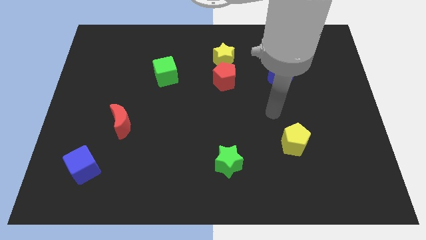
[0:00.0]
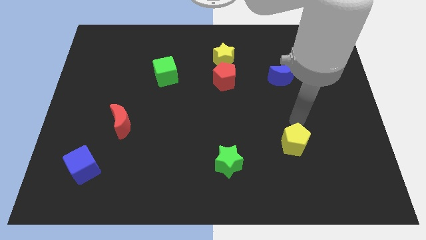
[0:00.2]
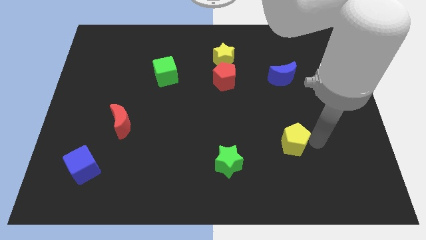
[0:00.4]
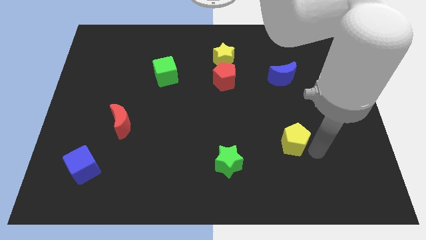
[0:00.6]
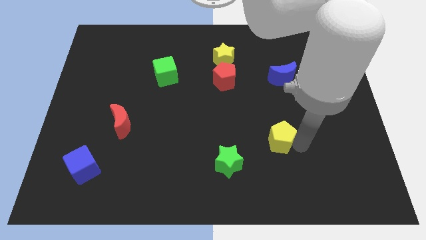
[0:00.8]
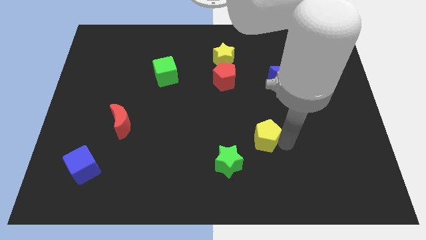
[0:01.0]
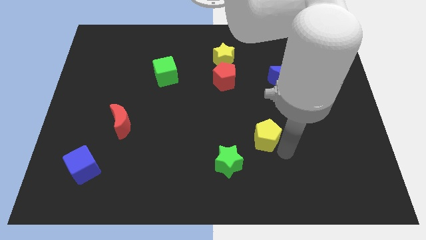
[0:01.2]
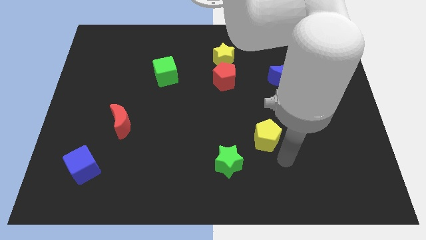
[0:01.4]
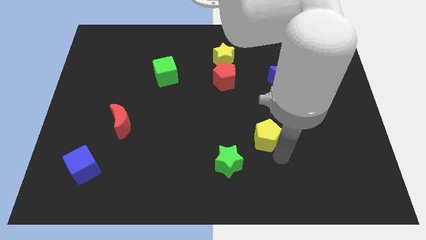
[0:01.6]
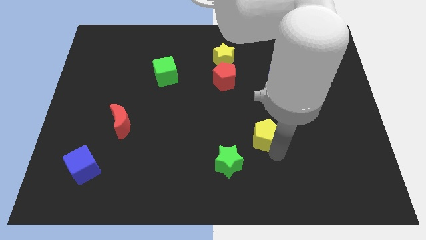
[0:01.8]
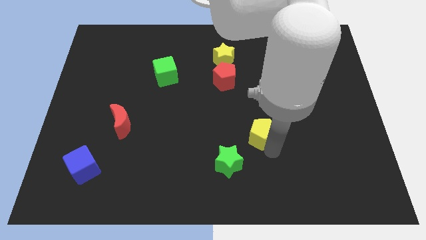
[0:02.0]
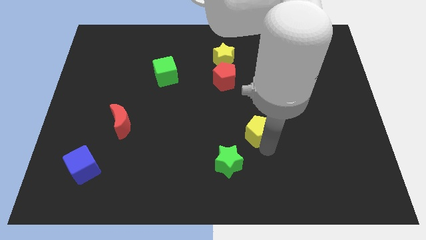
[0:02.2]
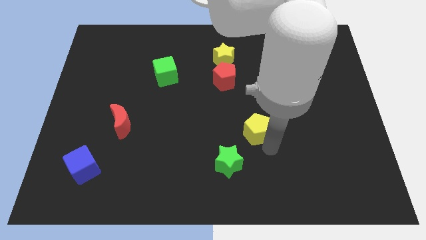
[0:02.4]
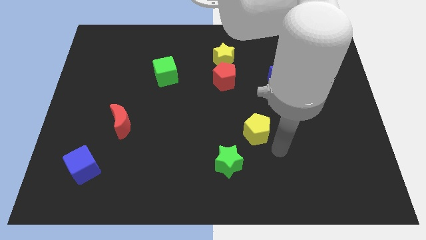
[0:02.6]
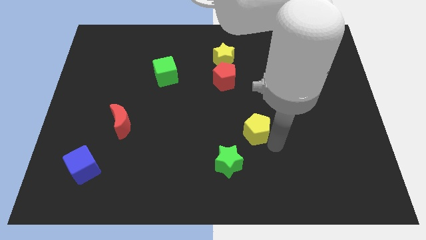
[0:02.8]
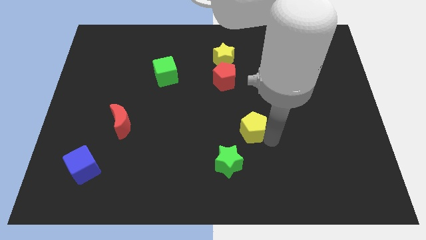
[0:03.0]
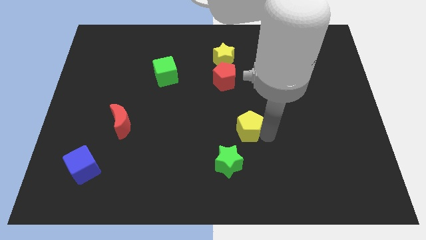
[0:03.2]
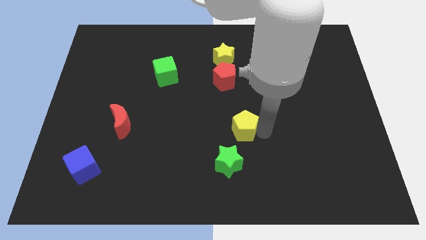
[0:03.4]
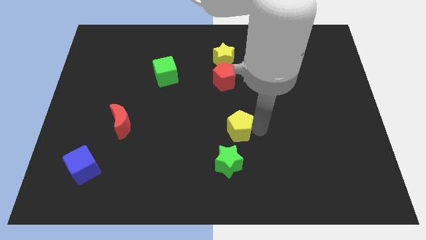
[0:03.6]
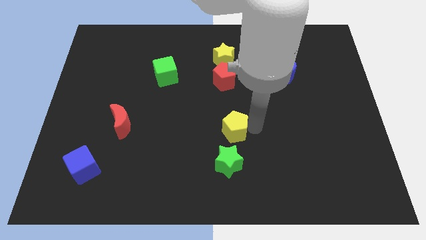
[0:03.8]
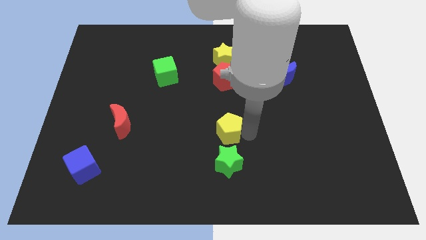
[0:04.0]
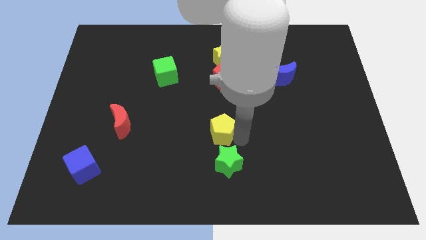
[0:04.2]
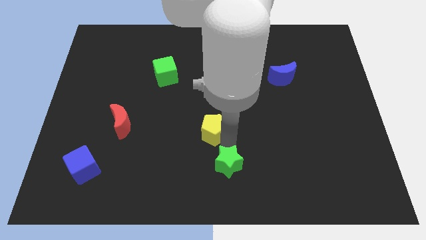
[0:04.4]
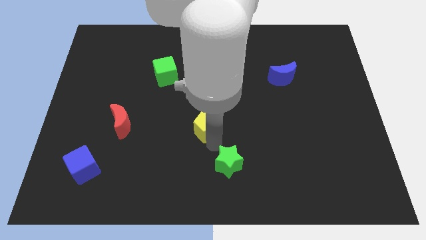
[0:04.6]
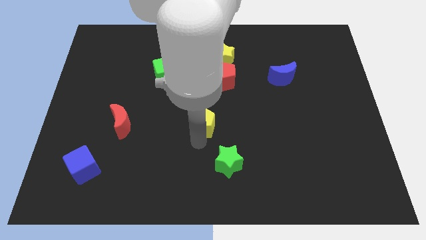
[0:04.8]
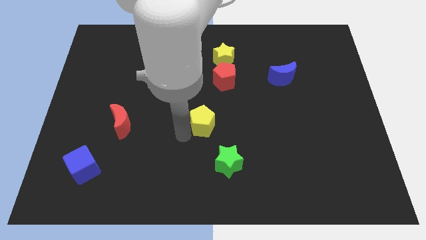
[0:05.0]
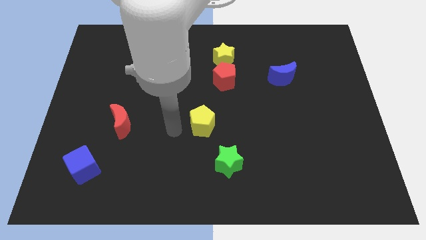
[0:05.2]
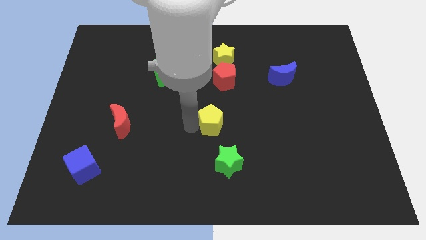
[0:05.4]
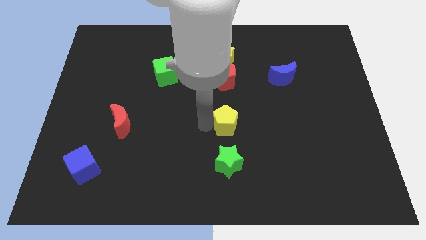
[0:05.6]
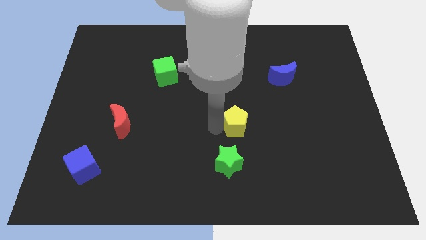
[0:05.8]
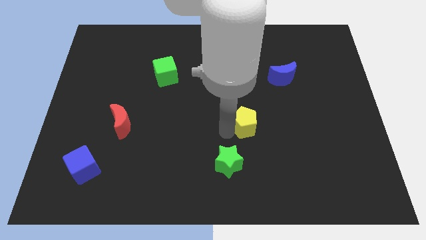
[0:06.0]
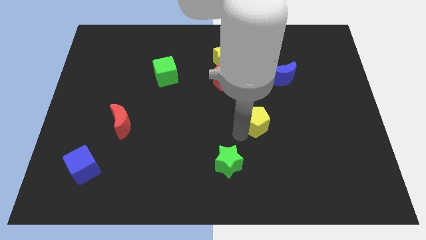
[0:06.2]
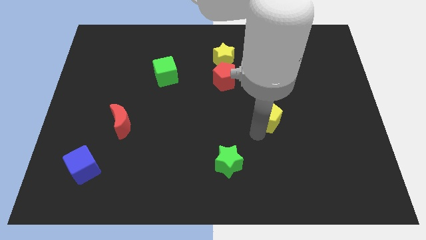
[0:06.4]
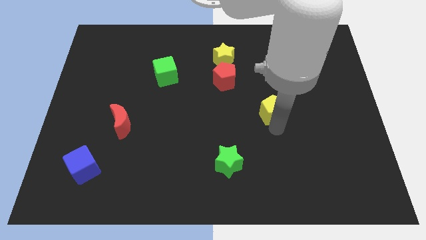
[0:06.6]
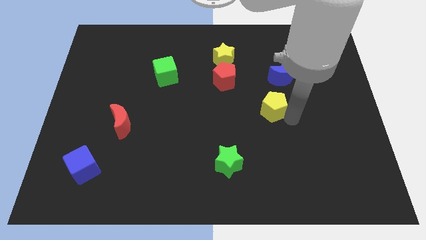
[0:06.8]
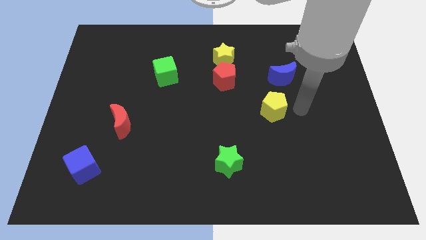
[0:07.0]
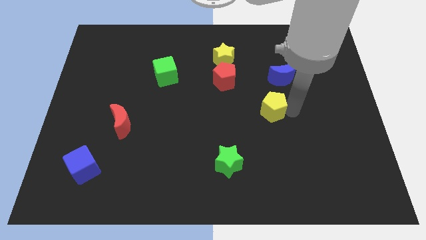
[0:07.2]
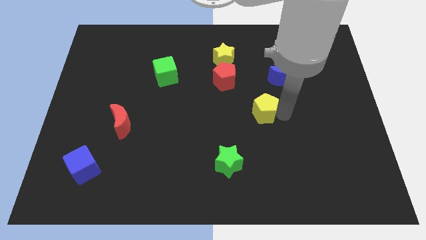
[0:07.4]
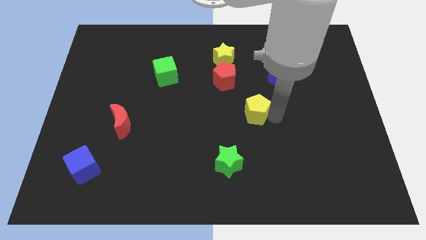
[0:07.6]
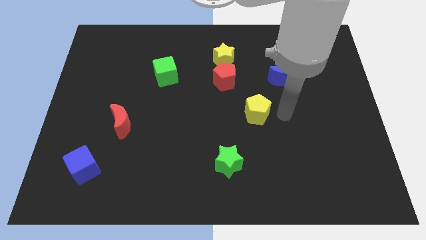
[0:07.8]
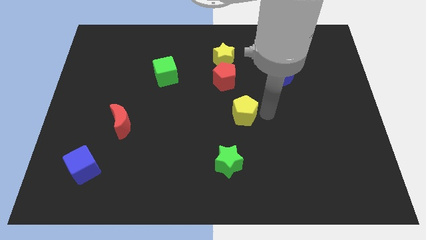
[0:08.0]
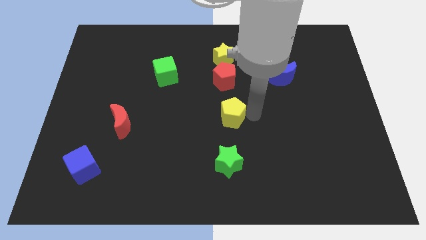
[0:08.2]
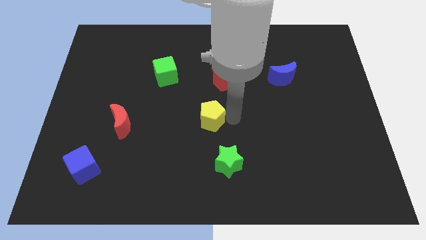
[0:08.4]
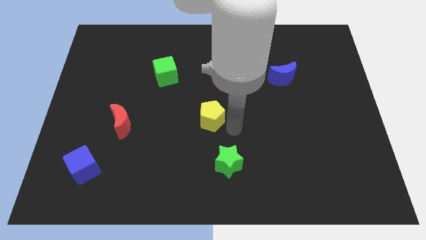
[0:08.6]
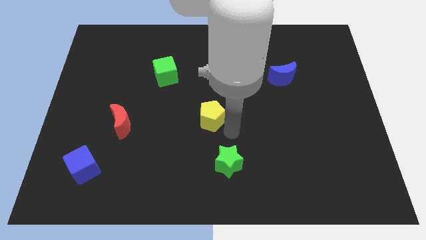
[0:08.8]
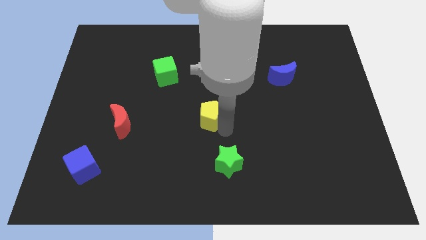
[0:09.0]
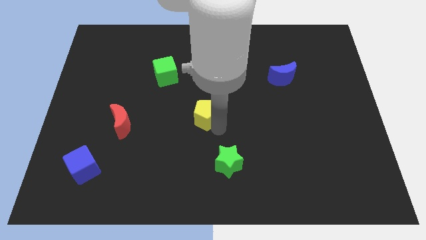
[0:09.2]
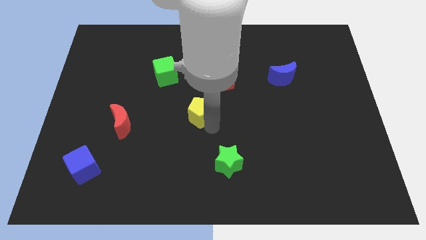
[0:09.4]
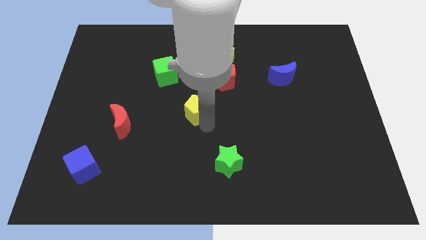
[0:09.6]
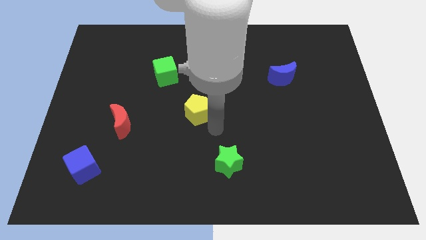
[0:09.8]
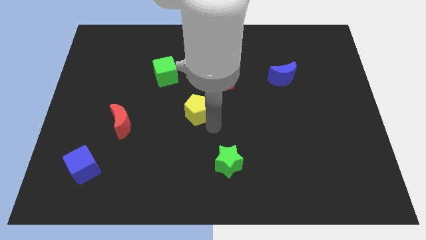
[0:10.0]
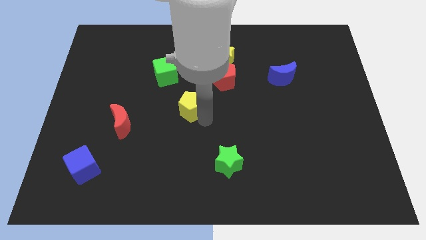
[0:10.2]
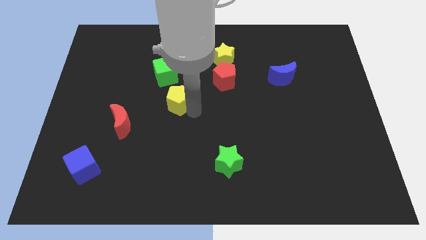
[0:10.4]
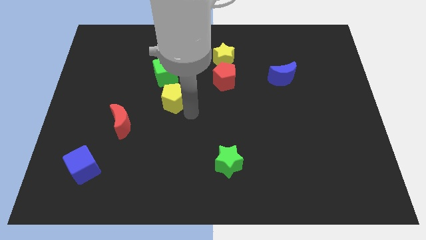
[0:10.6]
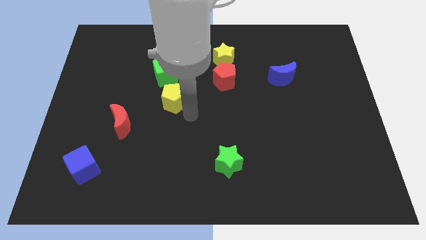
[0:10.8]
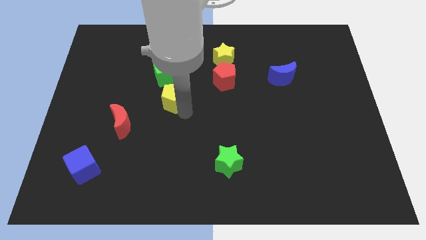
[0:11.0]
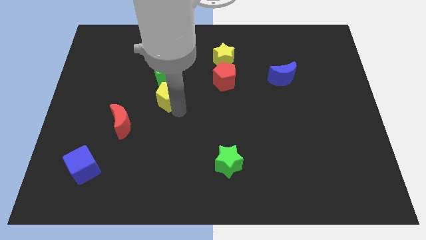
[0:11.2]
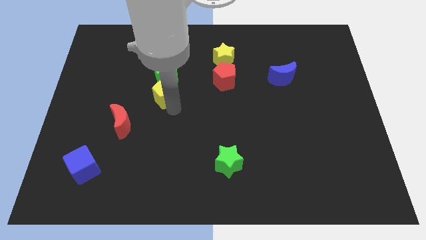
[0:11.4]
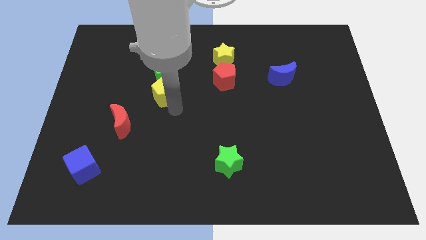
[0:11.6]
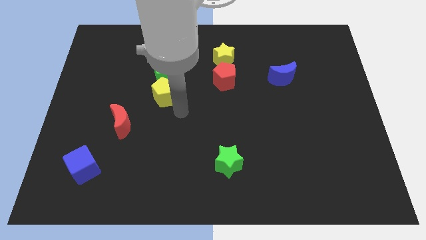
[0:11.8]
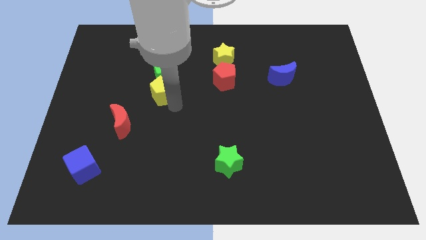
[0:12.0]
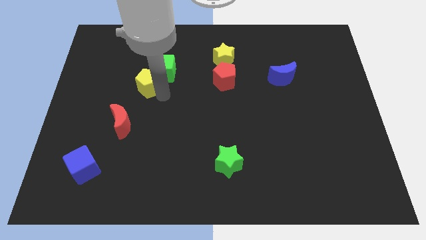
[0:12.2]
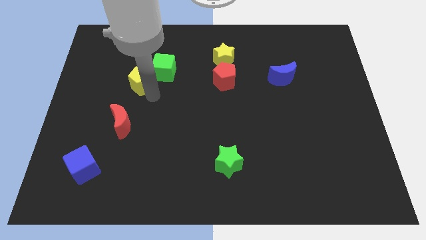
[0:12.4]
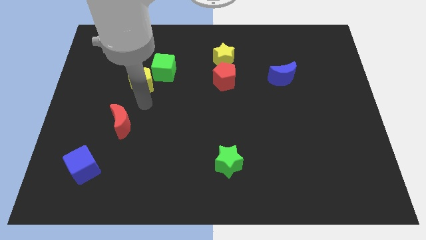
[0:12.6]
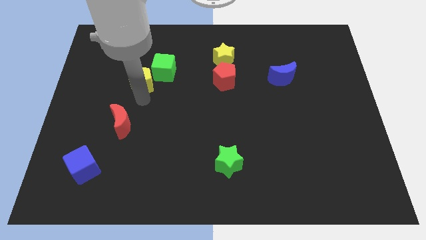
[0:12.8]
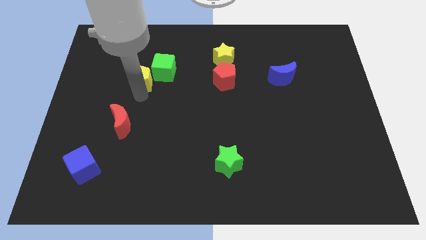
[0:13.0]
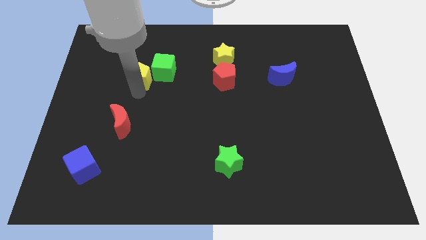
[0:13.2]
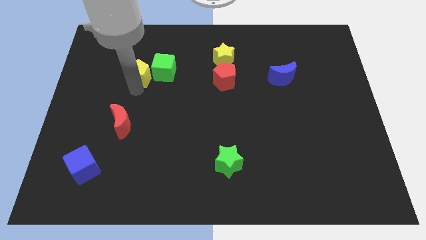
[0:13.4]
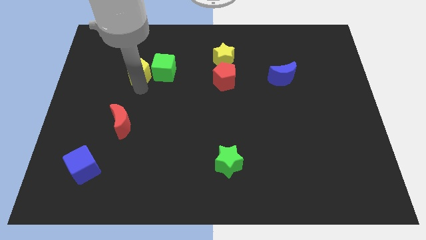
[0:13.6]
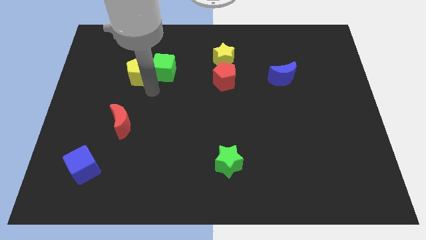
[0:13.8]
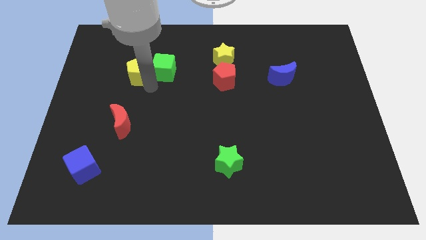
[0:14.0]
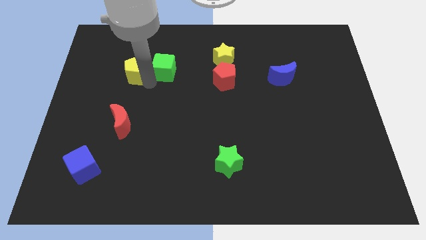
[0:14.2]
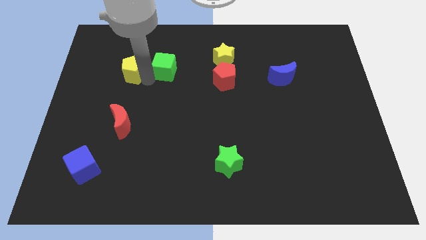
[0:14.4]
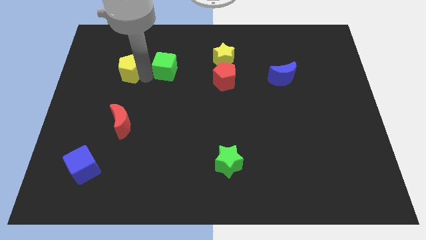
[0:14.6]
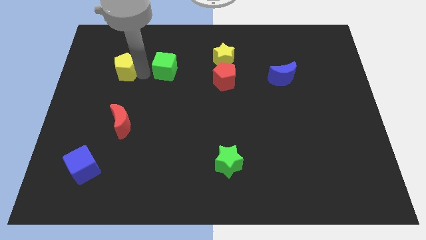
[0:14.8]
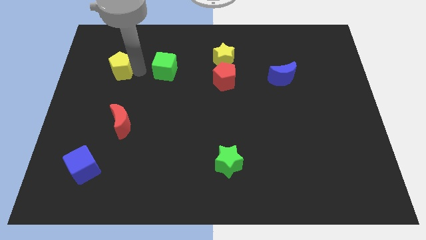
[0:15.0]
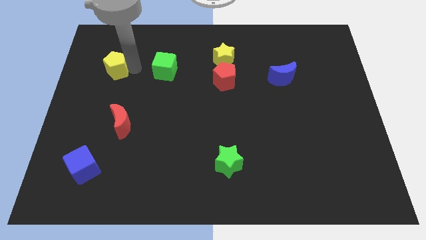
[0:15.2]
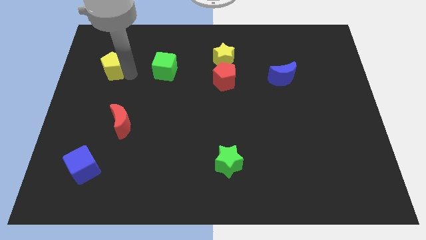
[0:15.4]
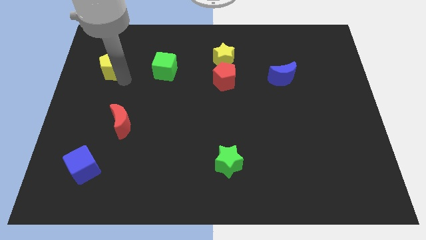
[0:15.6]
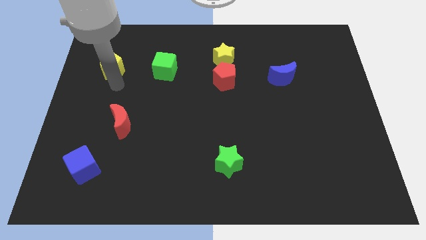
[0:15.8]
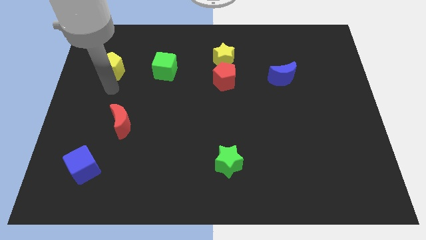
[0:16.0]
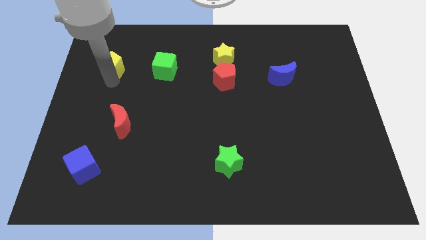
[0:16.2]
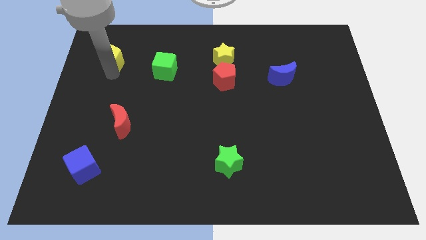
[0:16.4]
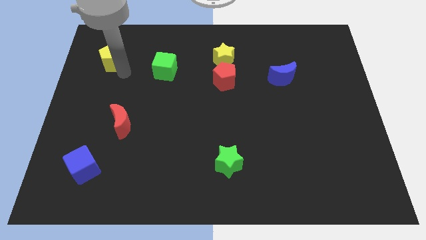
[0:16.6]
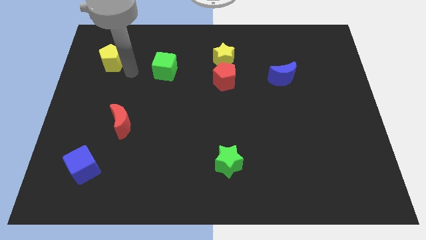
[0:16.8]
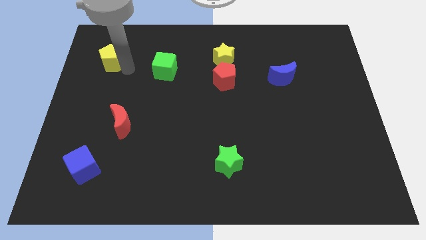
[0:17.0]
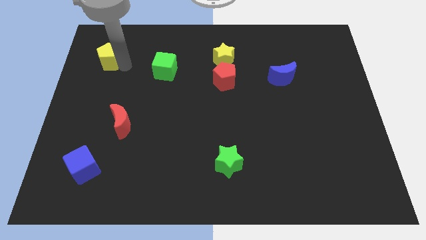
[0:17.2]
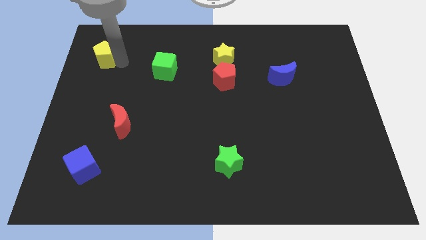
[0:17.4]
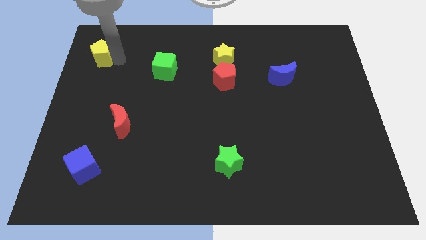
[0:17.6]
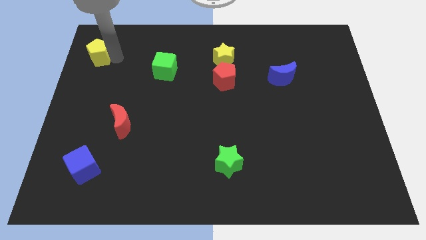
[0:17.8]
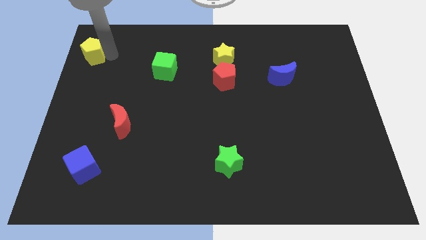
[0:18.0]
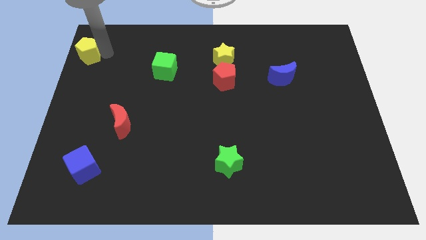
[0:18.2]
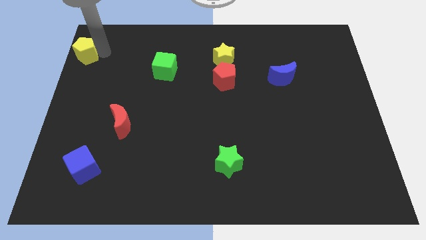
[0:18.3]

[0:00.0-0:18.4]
put the yellow pentagon to the top left
